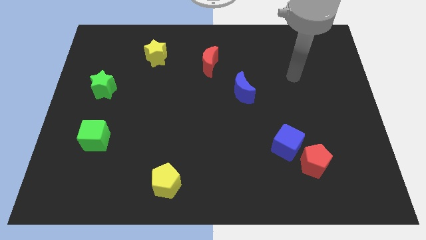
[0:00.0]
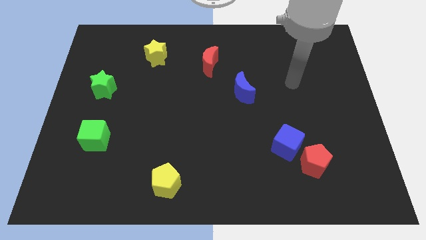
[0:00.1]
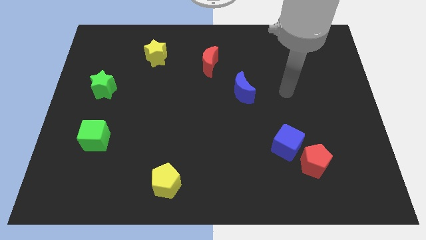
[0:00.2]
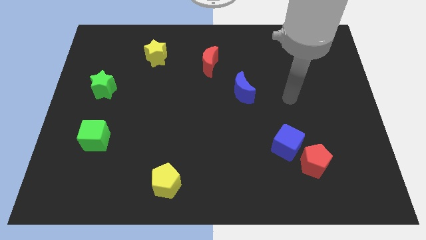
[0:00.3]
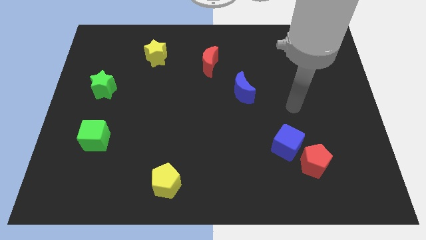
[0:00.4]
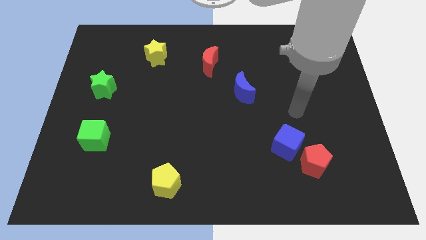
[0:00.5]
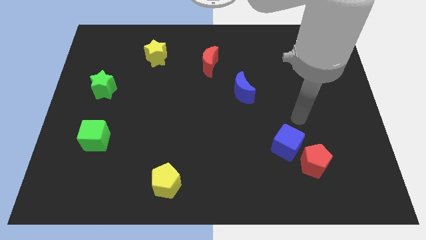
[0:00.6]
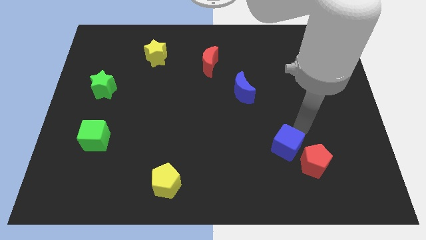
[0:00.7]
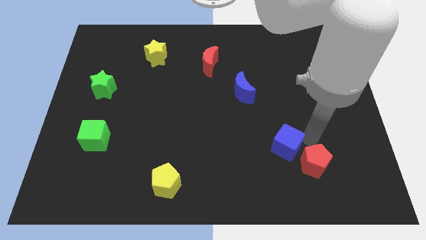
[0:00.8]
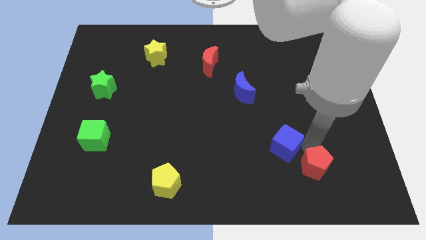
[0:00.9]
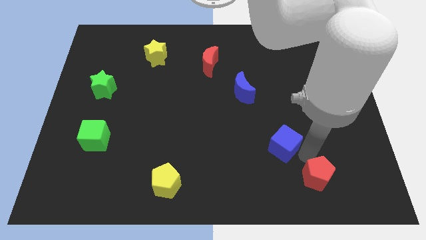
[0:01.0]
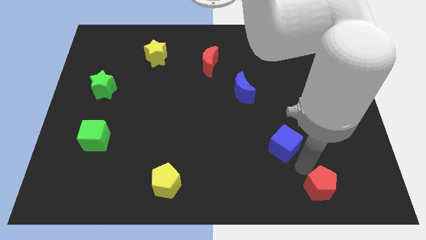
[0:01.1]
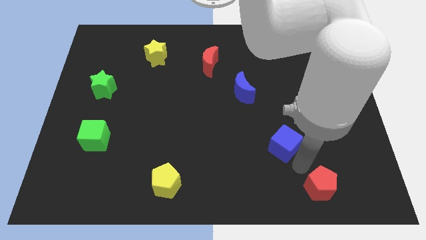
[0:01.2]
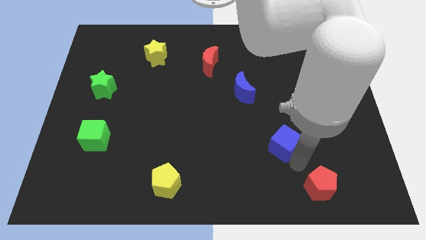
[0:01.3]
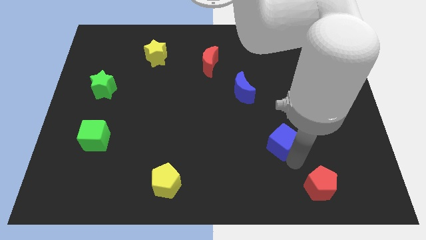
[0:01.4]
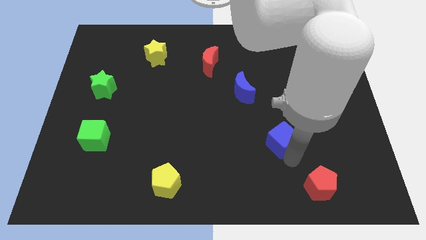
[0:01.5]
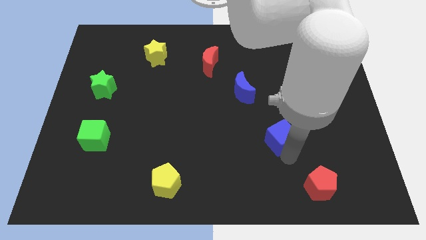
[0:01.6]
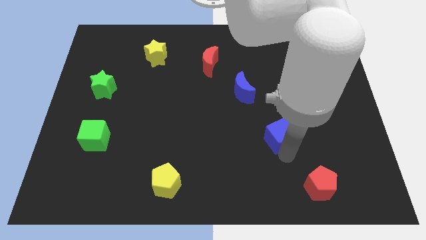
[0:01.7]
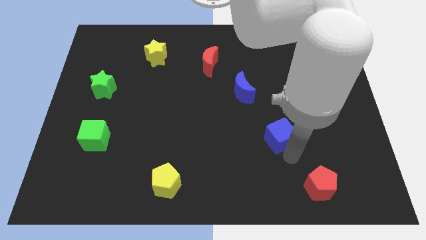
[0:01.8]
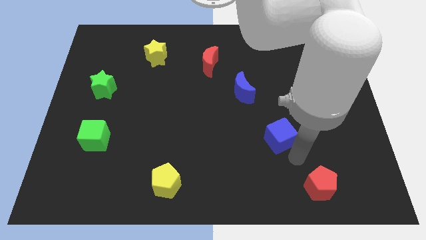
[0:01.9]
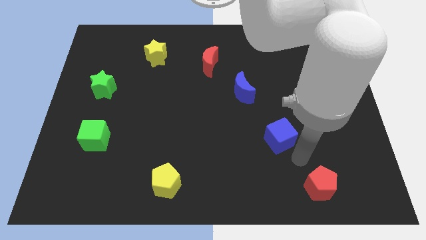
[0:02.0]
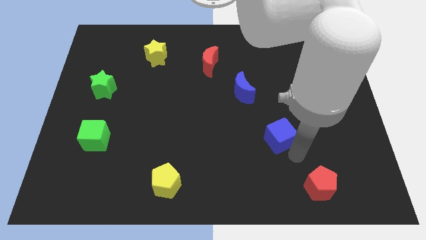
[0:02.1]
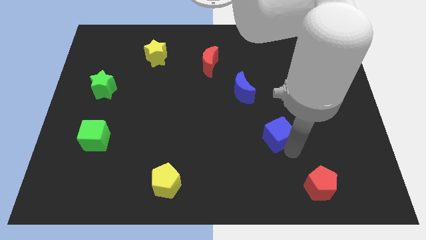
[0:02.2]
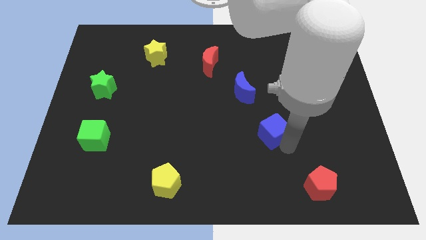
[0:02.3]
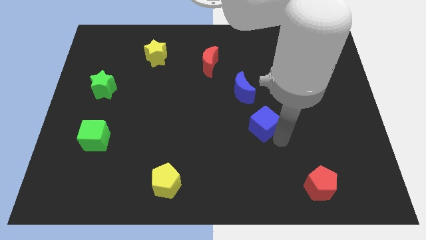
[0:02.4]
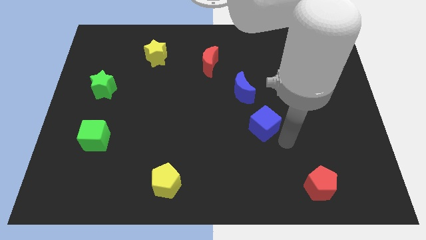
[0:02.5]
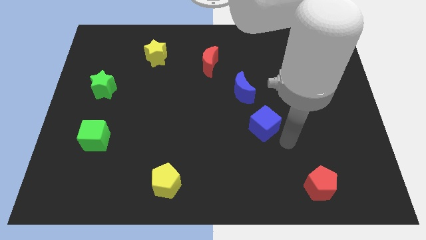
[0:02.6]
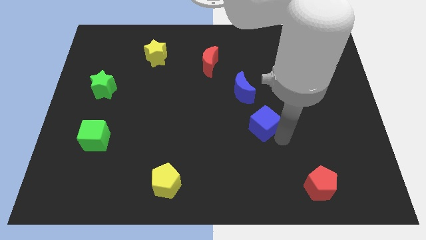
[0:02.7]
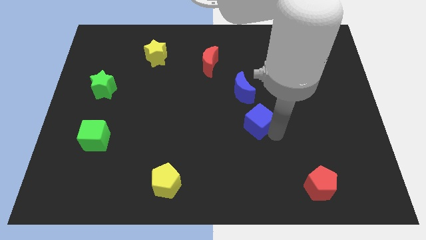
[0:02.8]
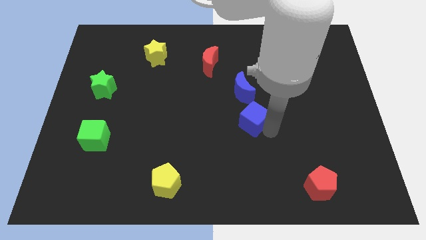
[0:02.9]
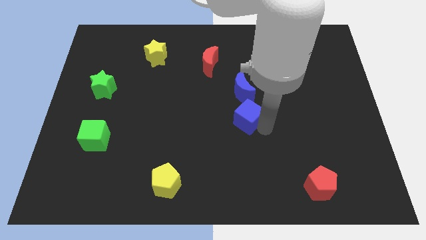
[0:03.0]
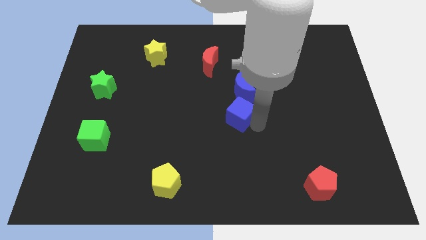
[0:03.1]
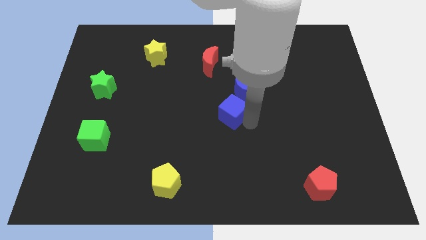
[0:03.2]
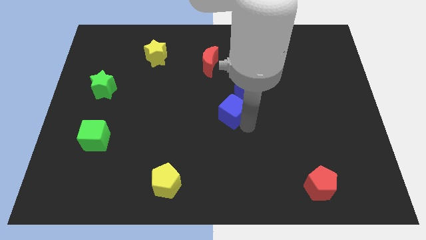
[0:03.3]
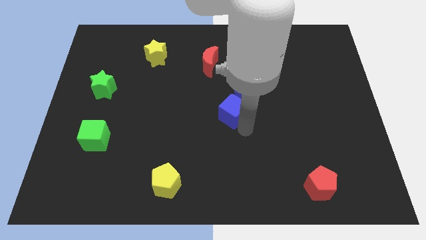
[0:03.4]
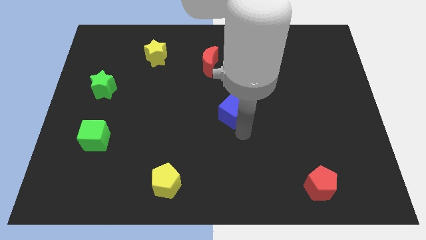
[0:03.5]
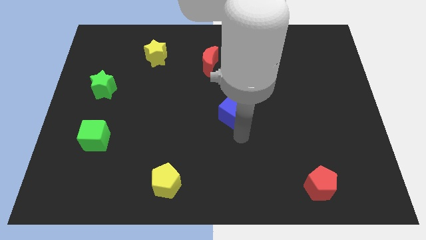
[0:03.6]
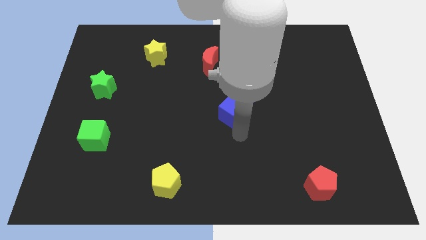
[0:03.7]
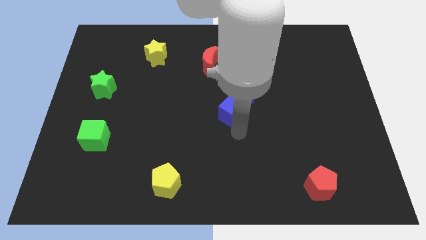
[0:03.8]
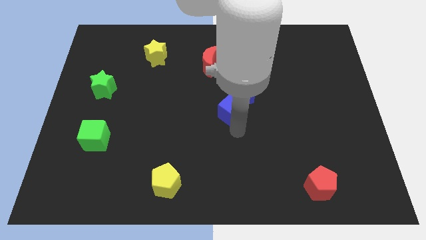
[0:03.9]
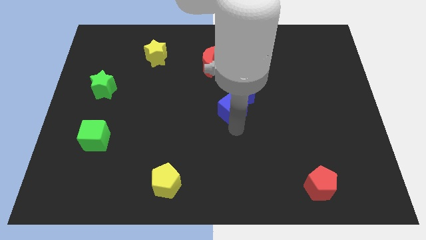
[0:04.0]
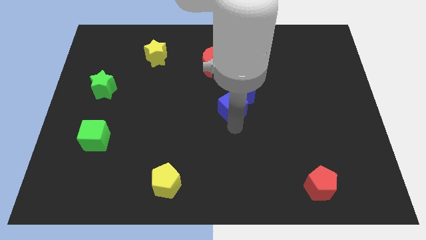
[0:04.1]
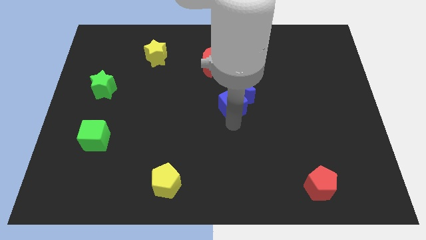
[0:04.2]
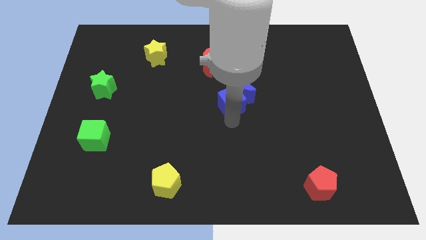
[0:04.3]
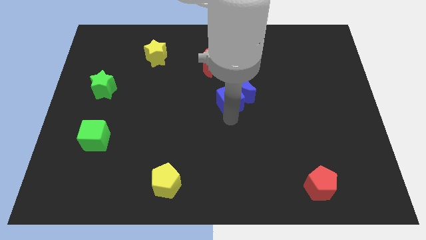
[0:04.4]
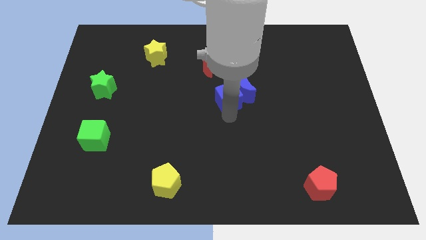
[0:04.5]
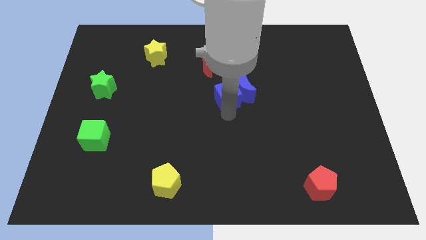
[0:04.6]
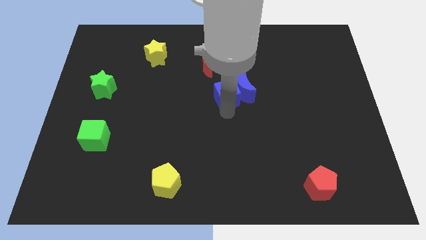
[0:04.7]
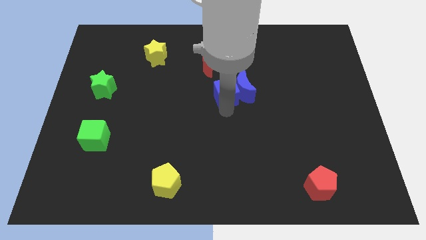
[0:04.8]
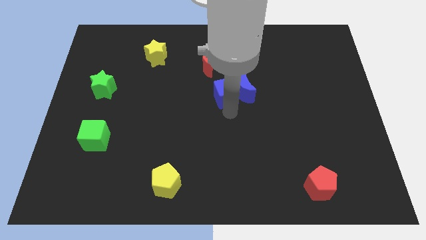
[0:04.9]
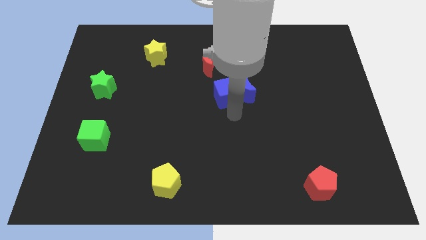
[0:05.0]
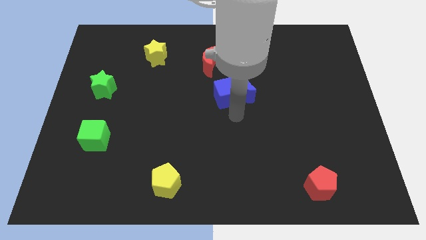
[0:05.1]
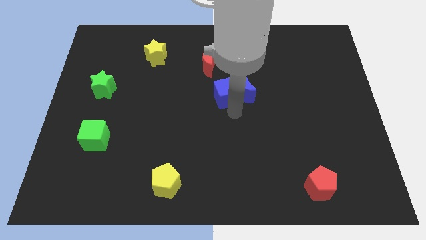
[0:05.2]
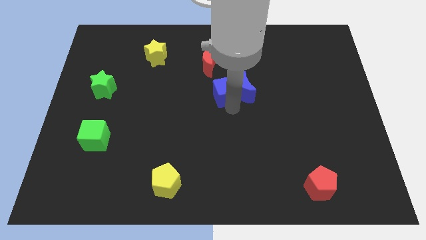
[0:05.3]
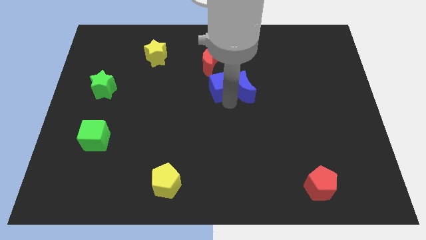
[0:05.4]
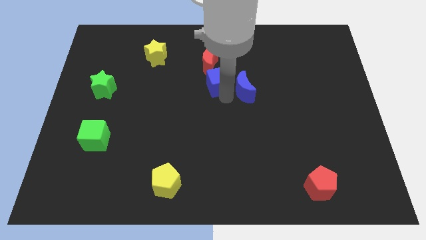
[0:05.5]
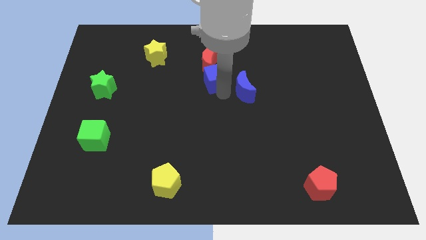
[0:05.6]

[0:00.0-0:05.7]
slide the blue cube next to the red moon

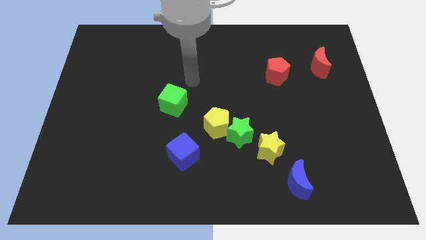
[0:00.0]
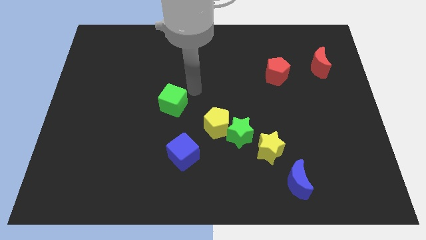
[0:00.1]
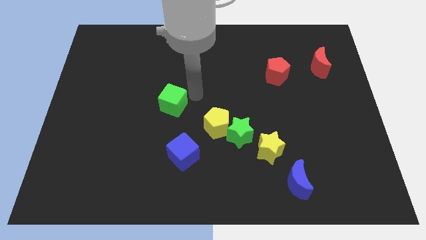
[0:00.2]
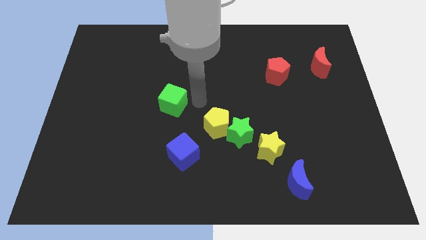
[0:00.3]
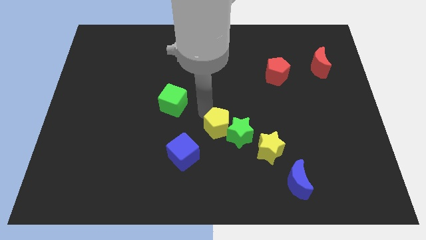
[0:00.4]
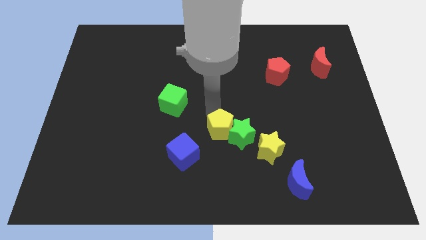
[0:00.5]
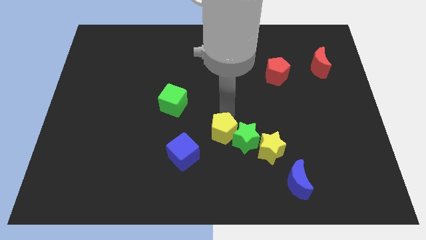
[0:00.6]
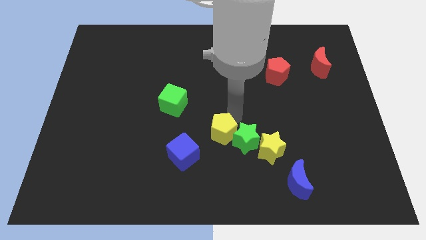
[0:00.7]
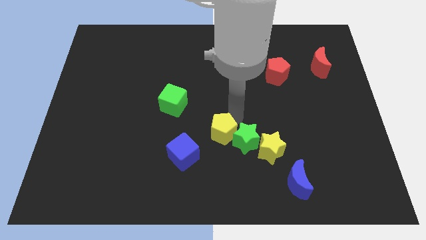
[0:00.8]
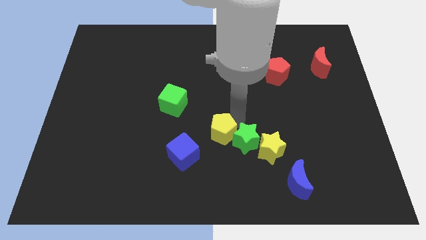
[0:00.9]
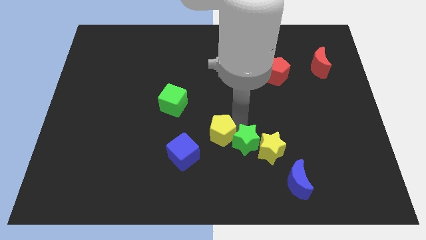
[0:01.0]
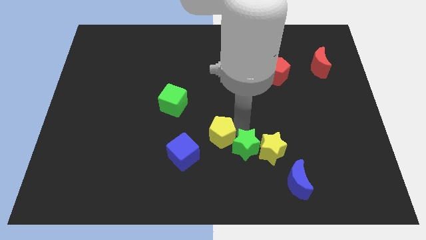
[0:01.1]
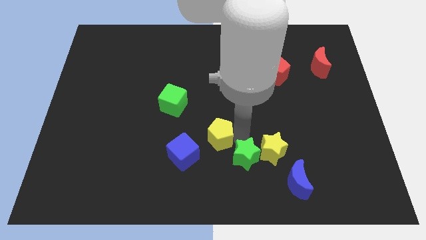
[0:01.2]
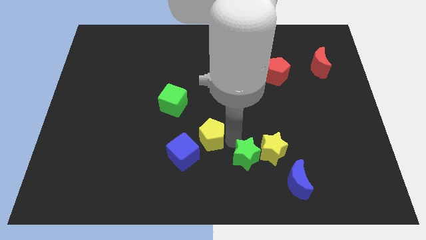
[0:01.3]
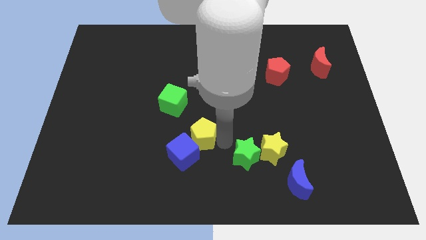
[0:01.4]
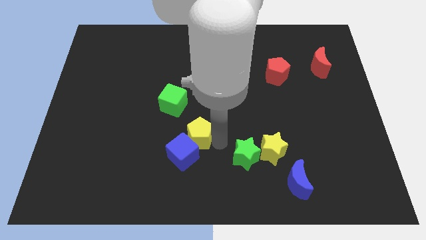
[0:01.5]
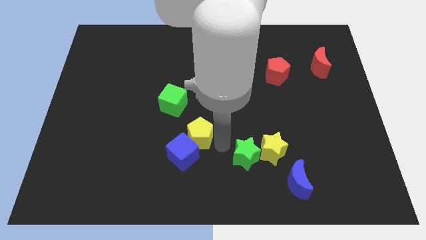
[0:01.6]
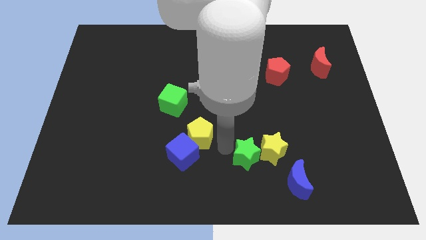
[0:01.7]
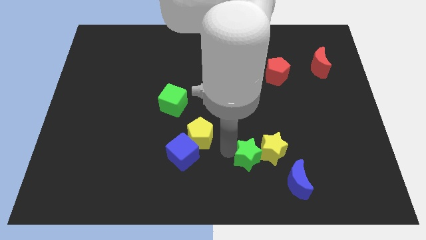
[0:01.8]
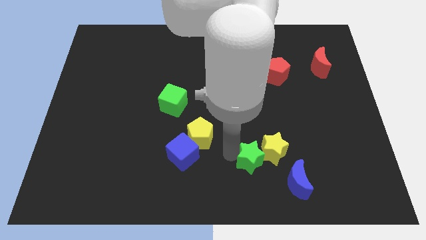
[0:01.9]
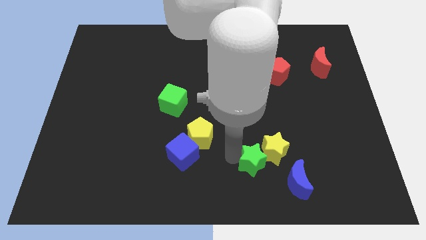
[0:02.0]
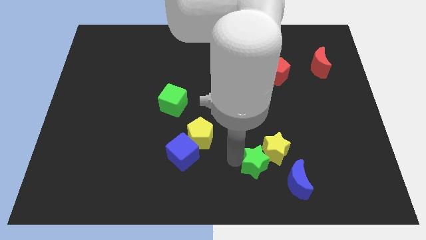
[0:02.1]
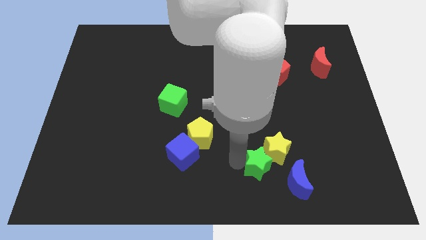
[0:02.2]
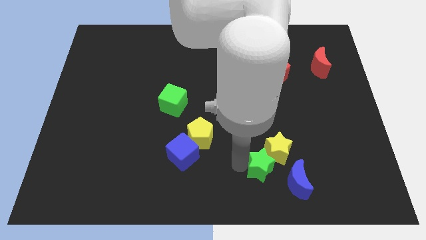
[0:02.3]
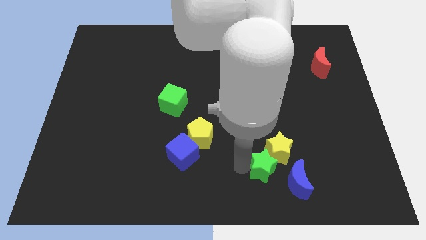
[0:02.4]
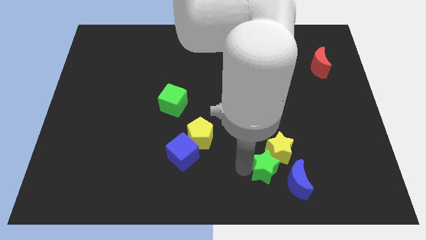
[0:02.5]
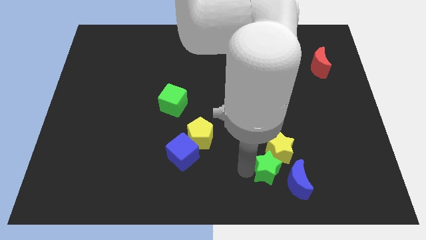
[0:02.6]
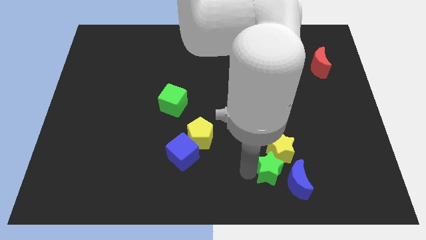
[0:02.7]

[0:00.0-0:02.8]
put the green star close to the blue moon
